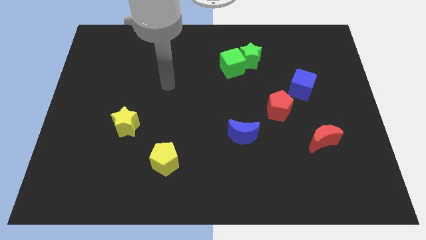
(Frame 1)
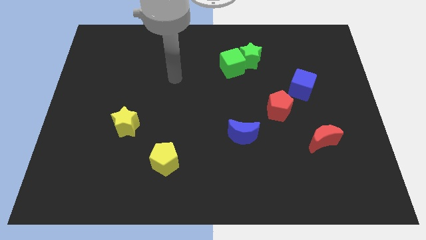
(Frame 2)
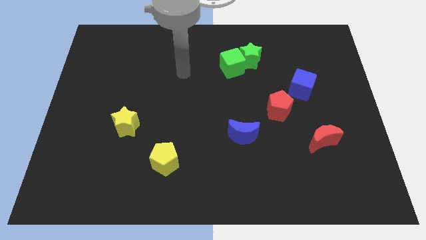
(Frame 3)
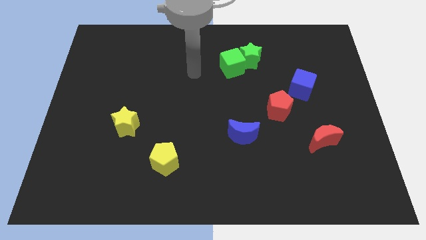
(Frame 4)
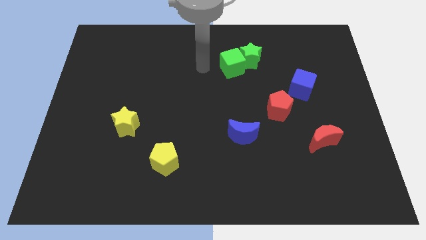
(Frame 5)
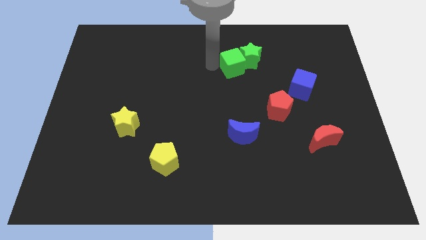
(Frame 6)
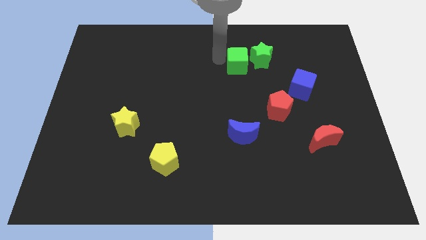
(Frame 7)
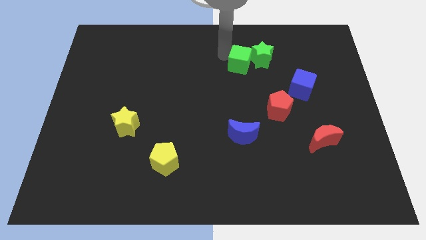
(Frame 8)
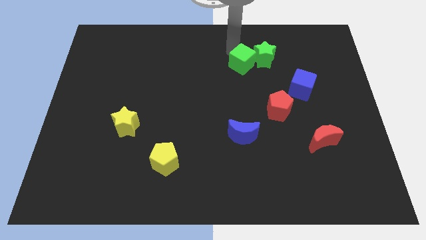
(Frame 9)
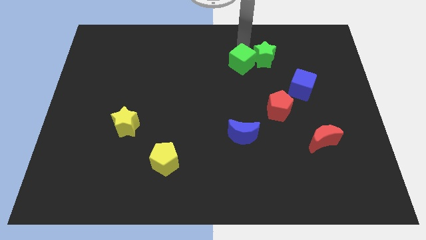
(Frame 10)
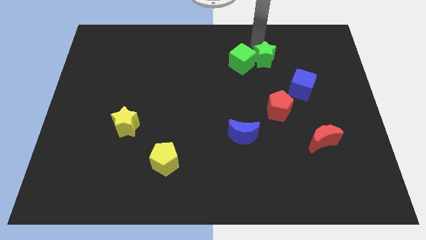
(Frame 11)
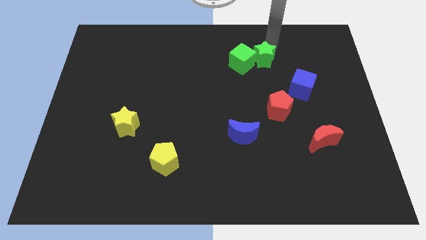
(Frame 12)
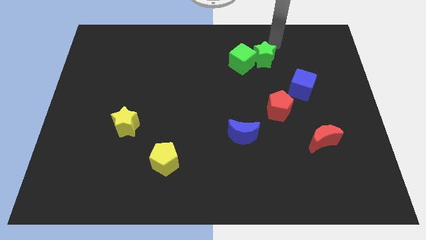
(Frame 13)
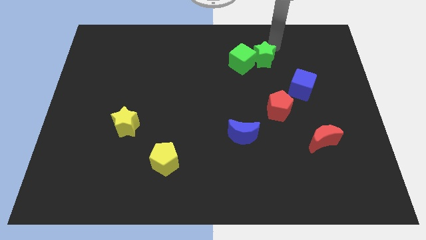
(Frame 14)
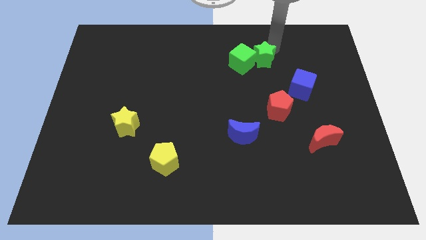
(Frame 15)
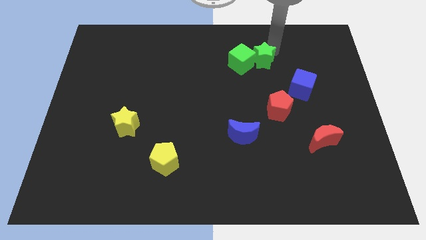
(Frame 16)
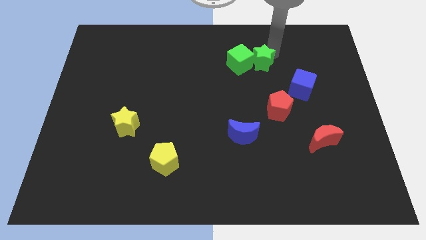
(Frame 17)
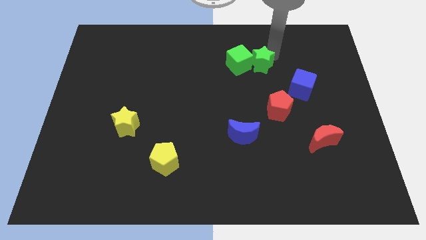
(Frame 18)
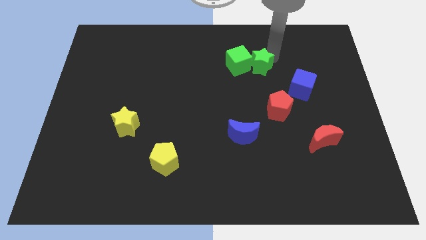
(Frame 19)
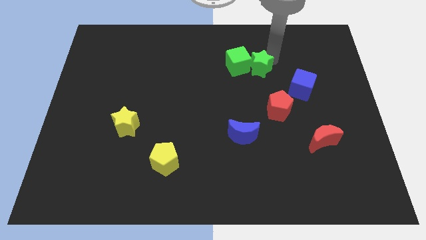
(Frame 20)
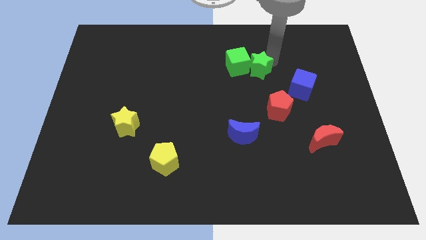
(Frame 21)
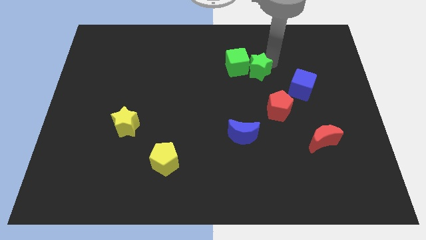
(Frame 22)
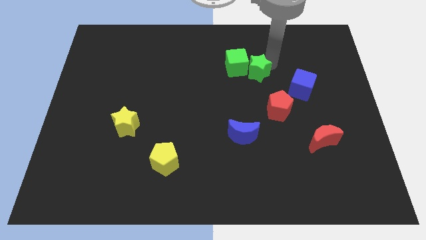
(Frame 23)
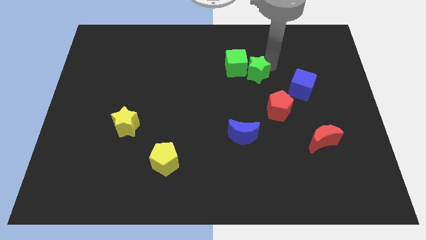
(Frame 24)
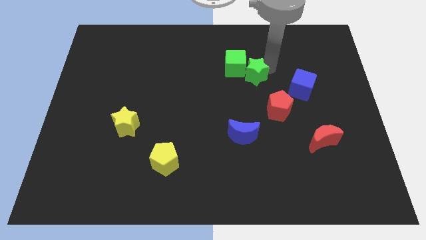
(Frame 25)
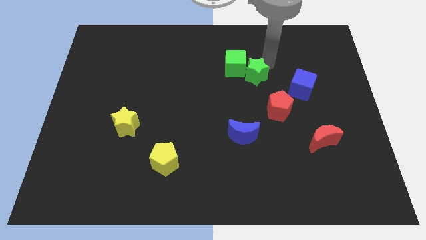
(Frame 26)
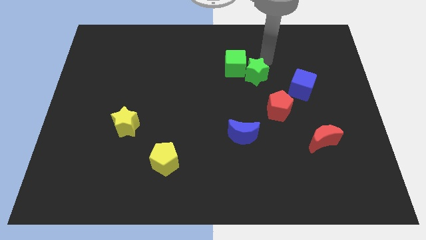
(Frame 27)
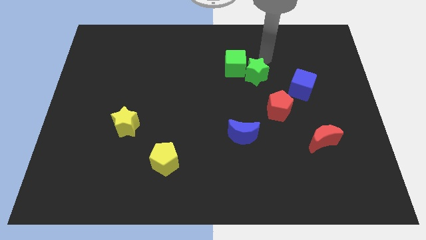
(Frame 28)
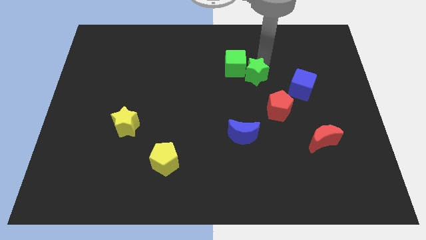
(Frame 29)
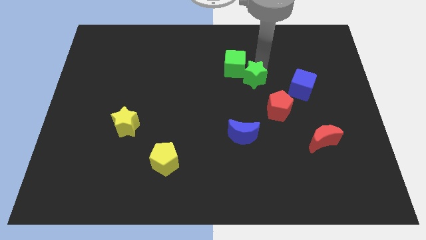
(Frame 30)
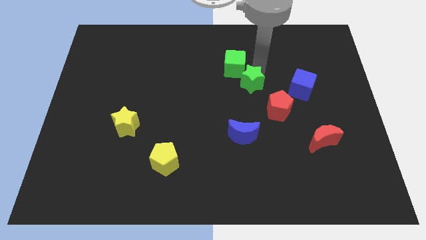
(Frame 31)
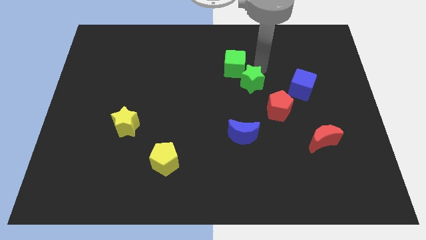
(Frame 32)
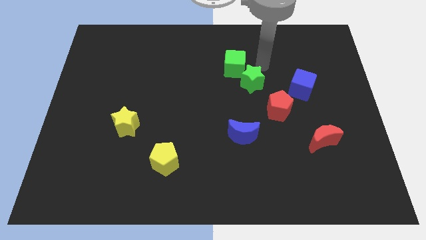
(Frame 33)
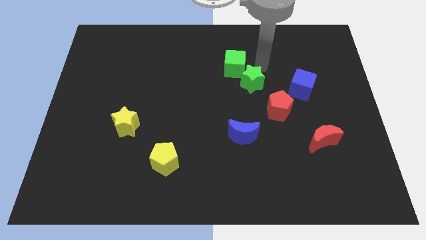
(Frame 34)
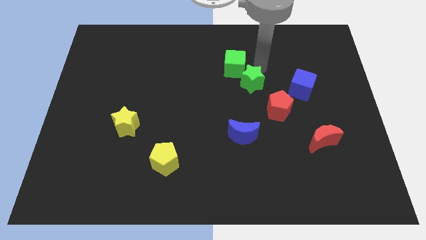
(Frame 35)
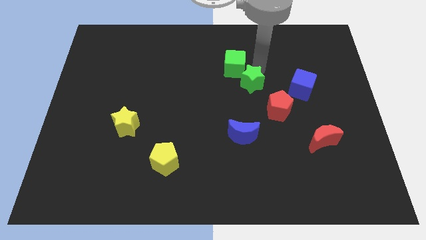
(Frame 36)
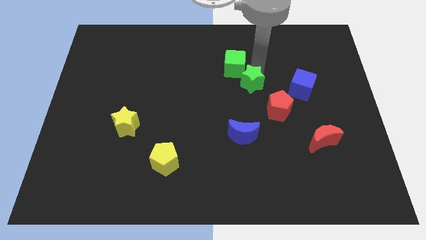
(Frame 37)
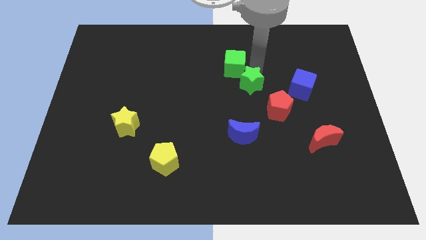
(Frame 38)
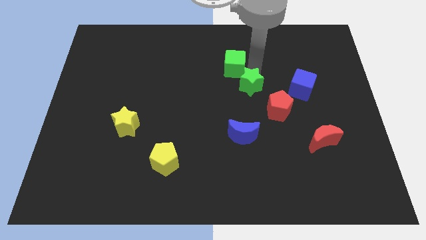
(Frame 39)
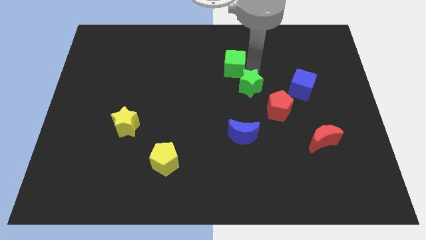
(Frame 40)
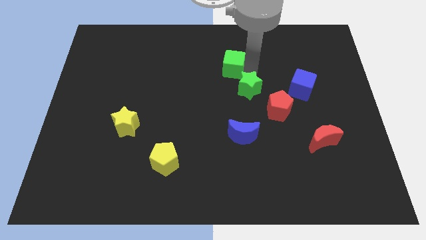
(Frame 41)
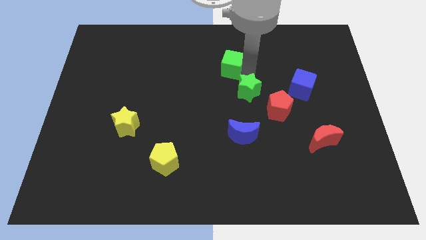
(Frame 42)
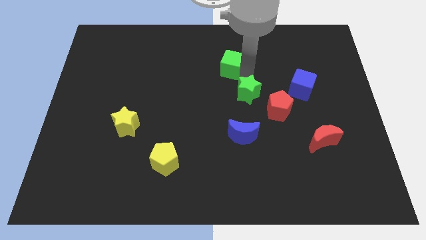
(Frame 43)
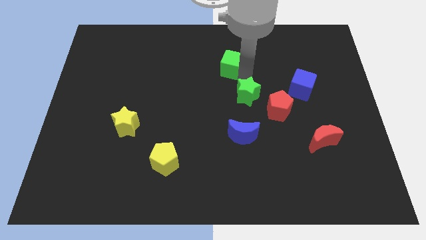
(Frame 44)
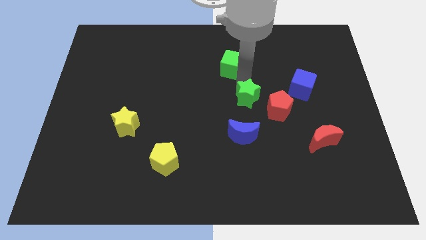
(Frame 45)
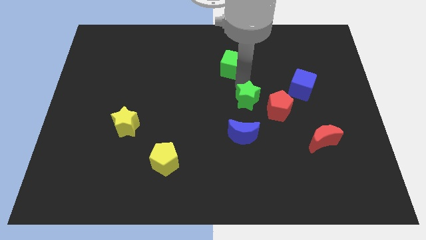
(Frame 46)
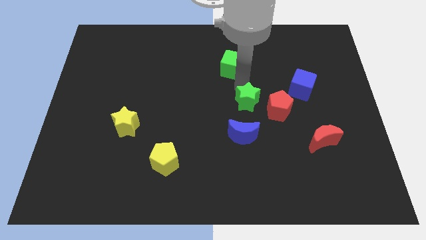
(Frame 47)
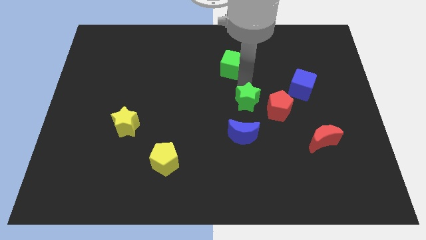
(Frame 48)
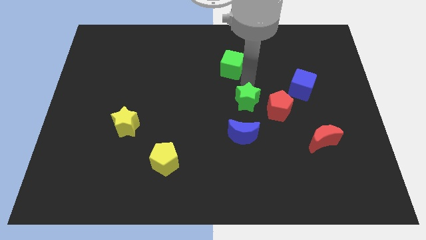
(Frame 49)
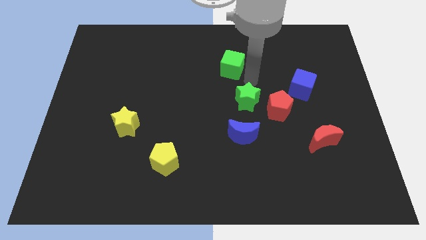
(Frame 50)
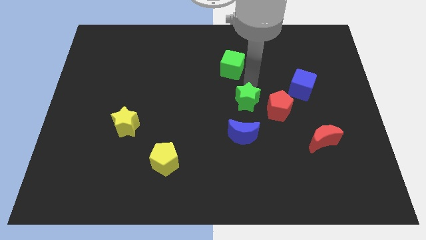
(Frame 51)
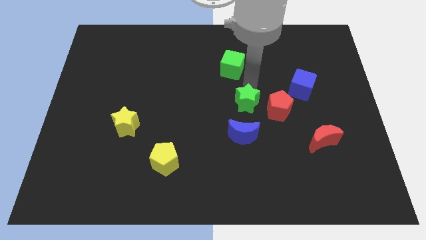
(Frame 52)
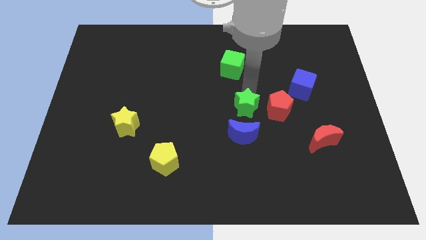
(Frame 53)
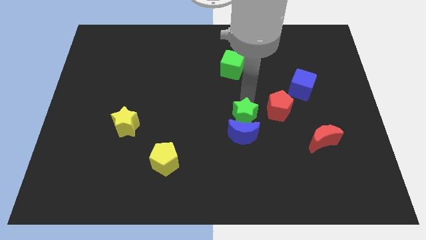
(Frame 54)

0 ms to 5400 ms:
push the green star close to the blue moon

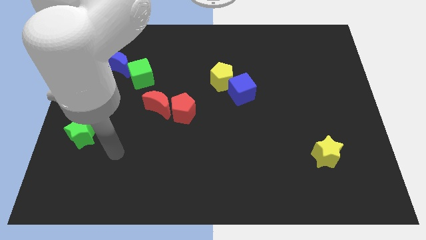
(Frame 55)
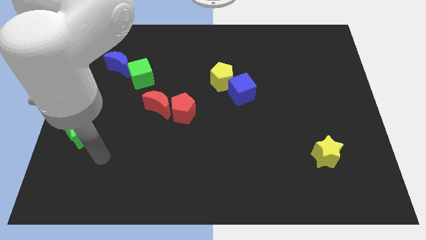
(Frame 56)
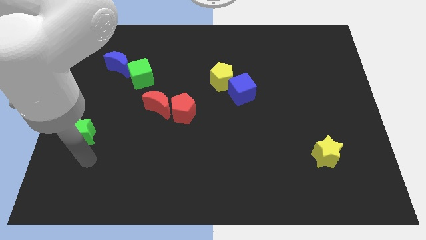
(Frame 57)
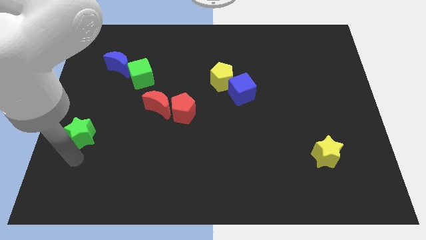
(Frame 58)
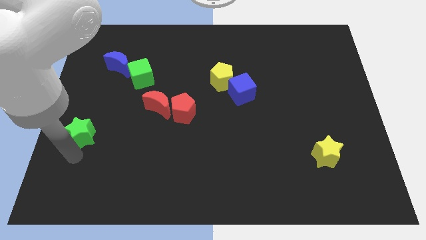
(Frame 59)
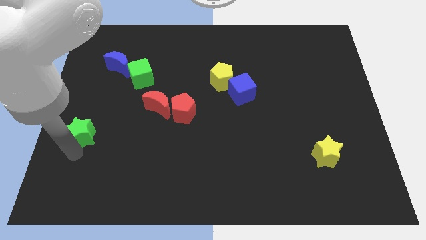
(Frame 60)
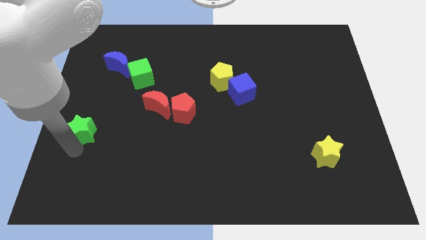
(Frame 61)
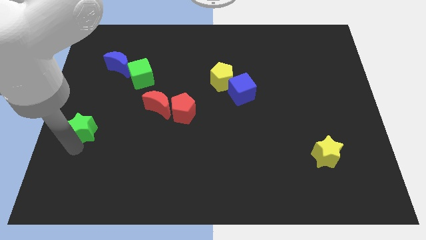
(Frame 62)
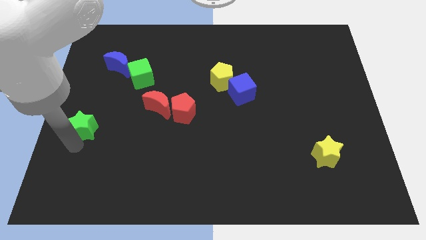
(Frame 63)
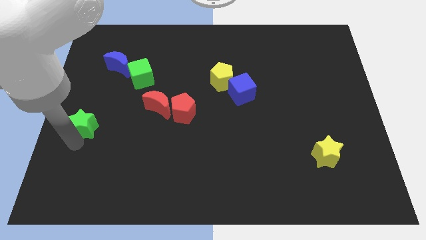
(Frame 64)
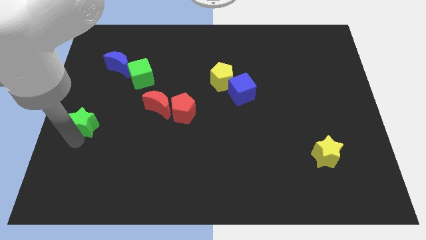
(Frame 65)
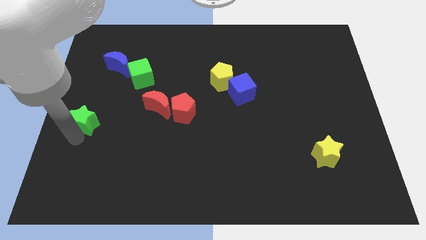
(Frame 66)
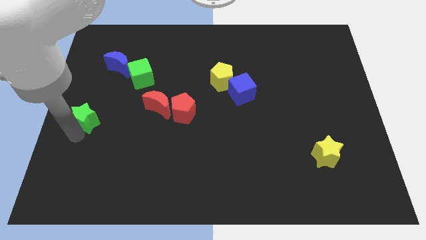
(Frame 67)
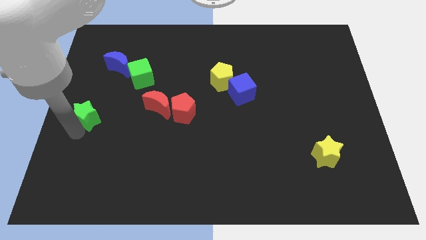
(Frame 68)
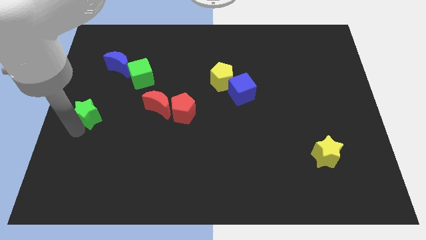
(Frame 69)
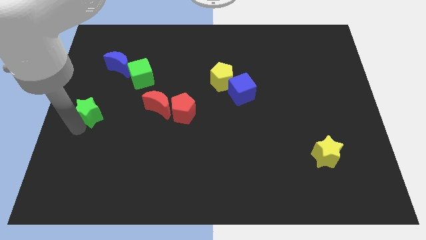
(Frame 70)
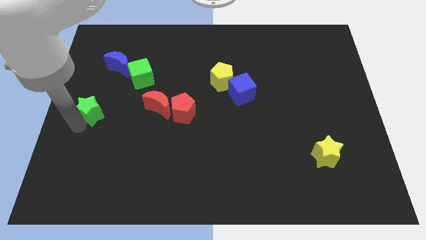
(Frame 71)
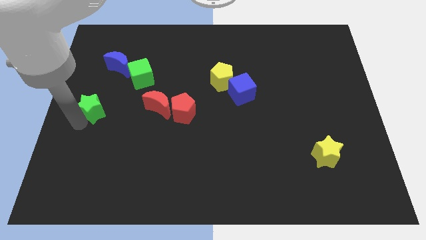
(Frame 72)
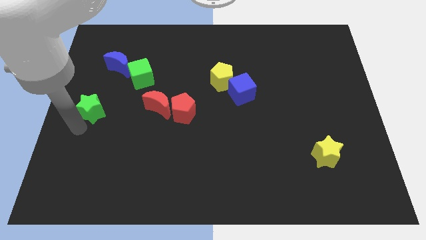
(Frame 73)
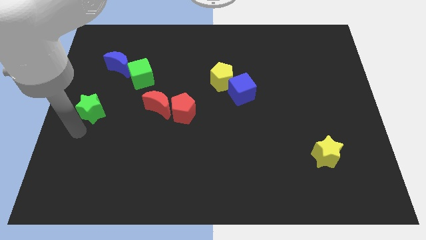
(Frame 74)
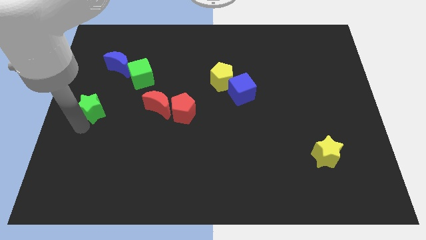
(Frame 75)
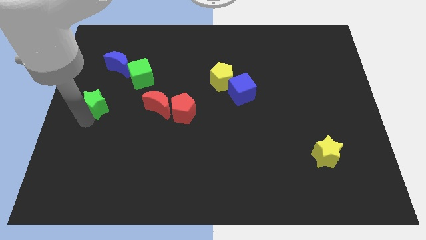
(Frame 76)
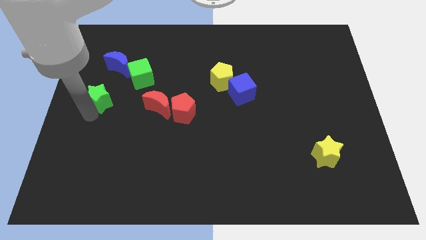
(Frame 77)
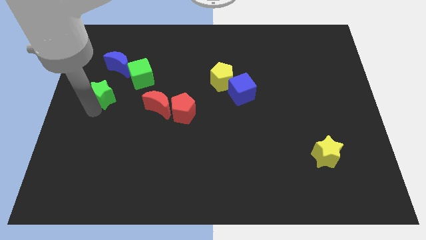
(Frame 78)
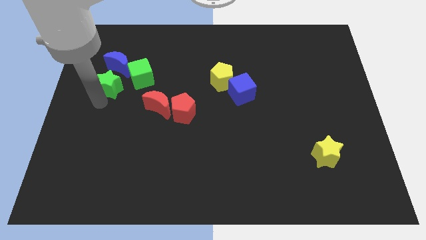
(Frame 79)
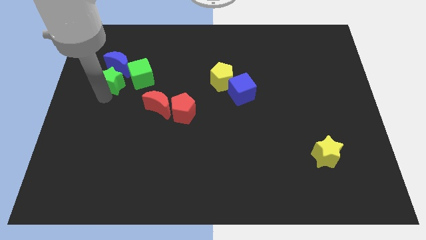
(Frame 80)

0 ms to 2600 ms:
slide the green star close to the blue moon
